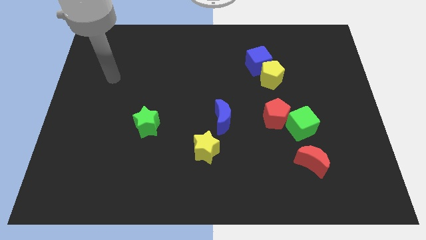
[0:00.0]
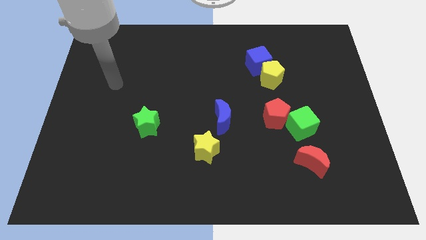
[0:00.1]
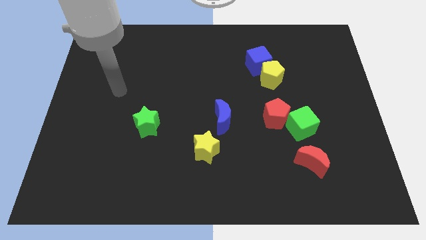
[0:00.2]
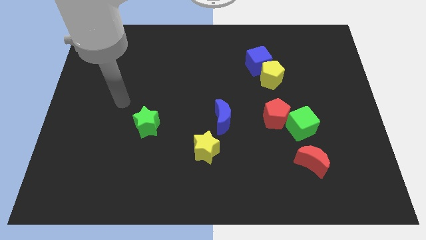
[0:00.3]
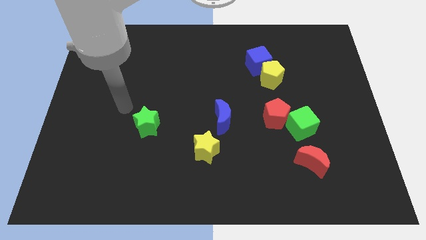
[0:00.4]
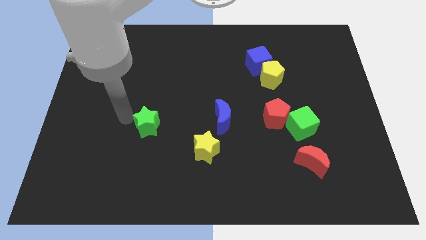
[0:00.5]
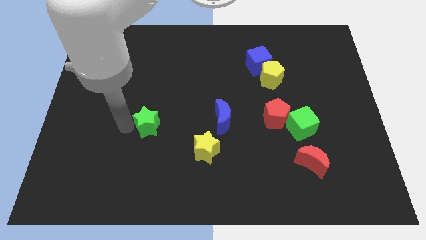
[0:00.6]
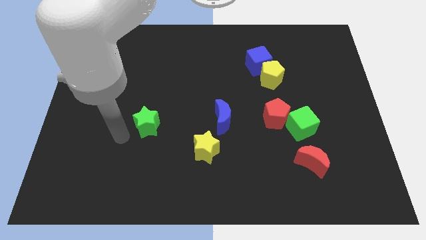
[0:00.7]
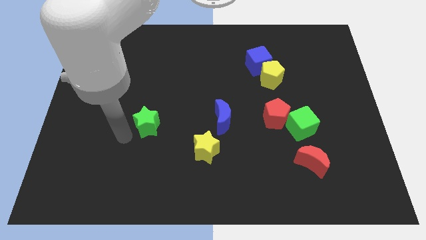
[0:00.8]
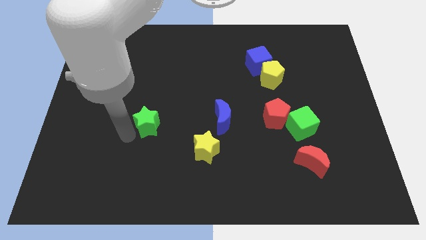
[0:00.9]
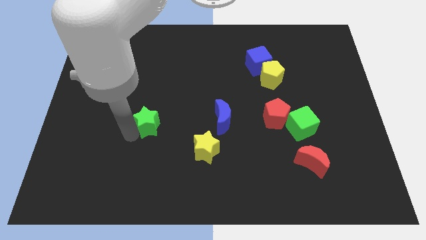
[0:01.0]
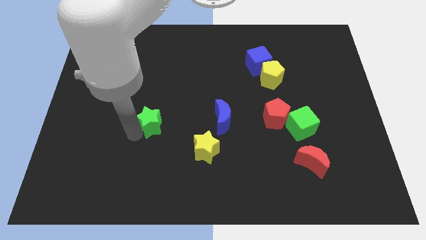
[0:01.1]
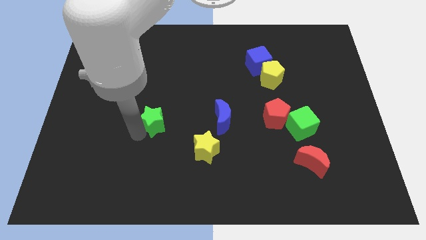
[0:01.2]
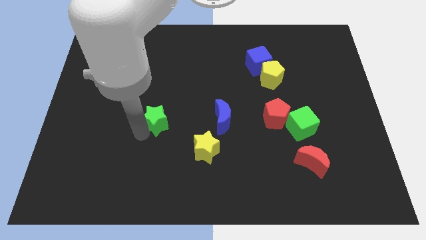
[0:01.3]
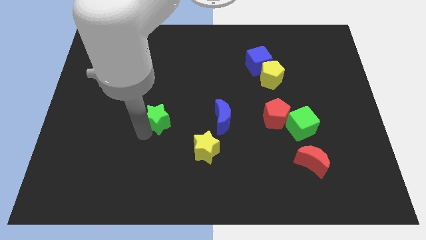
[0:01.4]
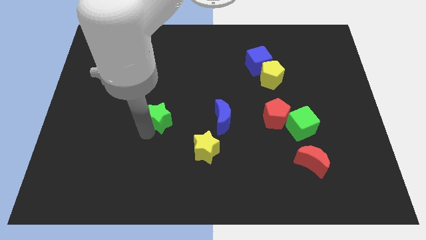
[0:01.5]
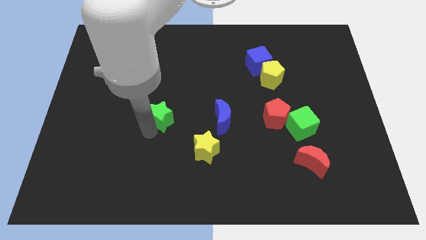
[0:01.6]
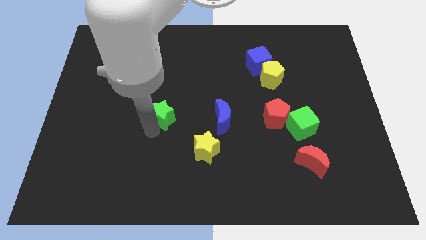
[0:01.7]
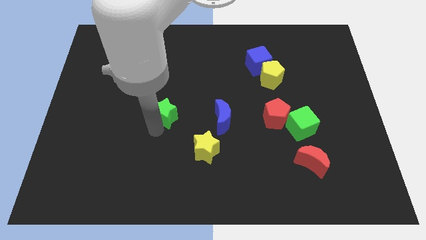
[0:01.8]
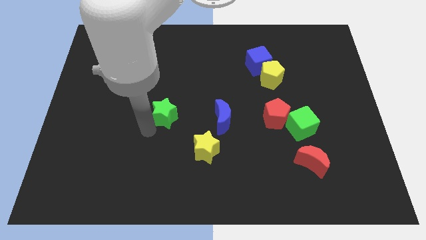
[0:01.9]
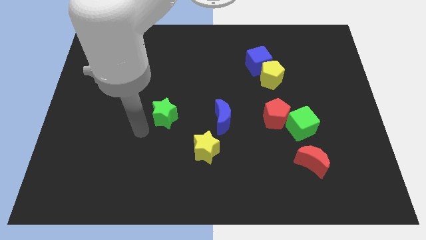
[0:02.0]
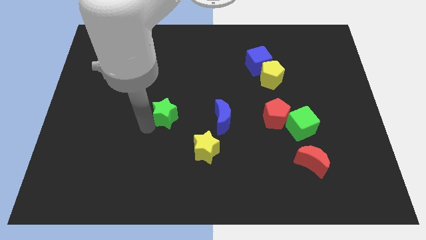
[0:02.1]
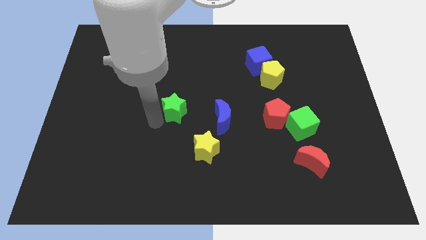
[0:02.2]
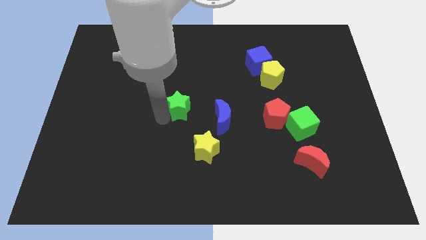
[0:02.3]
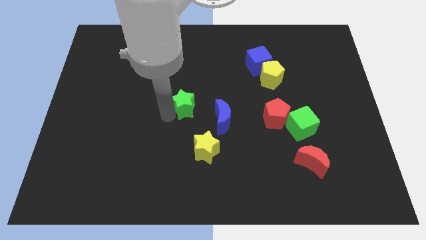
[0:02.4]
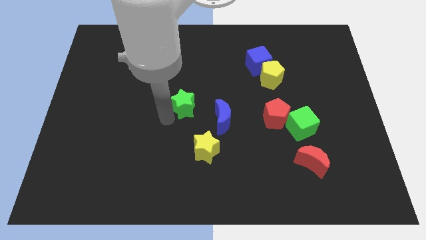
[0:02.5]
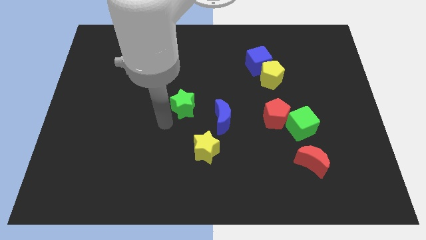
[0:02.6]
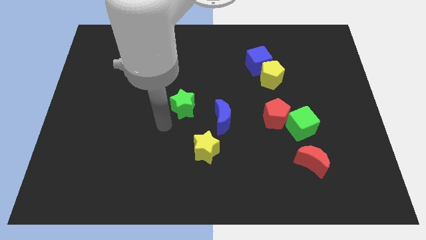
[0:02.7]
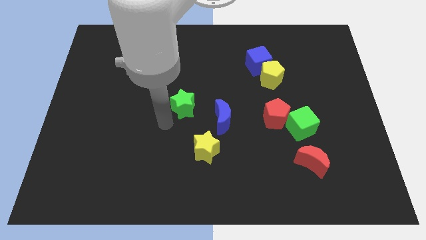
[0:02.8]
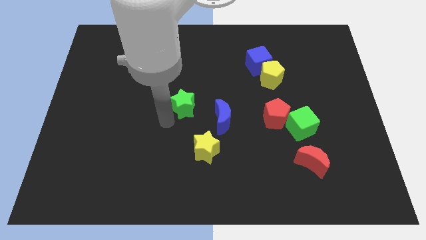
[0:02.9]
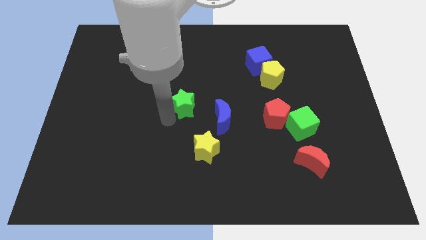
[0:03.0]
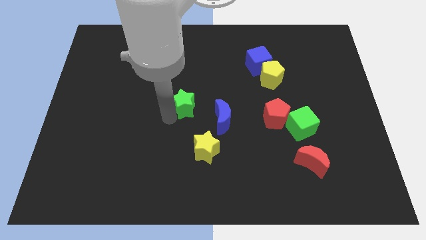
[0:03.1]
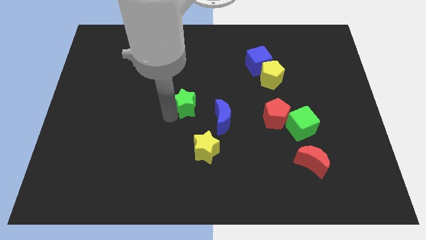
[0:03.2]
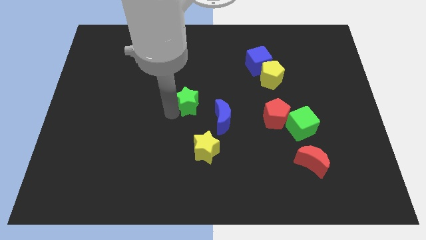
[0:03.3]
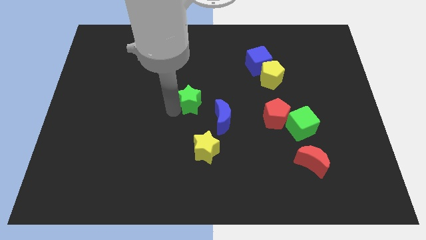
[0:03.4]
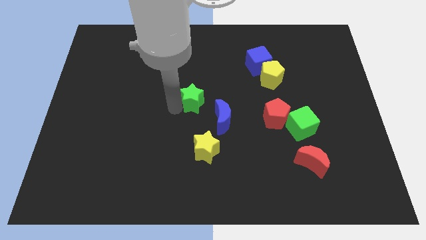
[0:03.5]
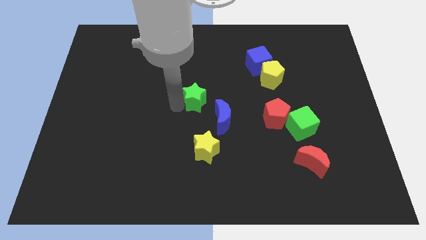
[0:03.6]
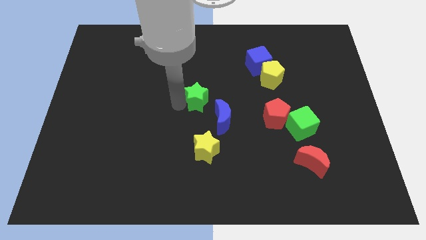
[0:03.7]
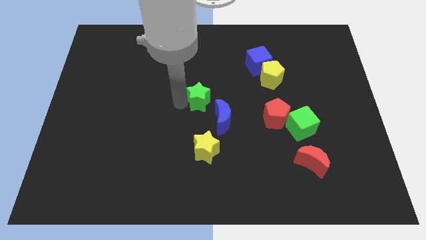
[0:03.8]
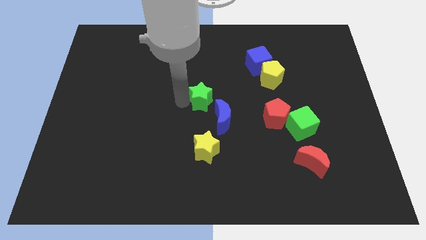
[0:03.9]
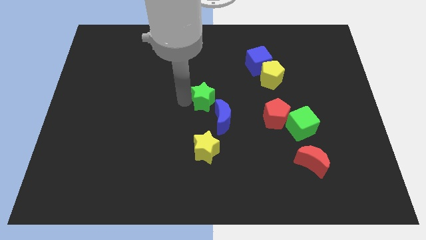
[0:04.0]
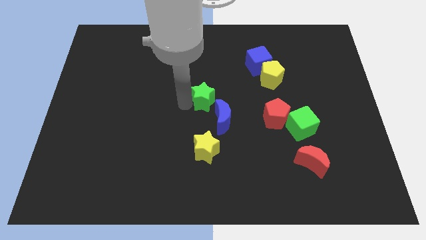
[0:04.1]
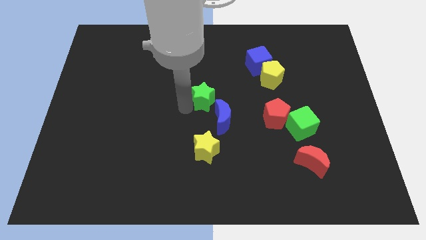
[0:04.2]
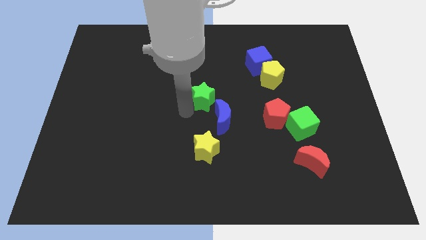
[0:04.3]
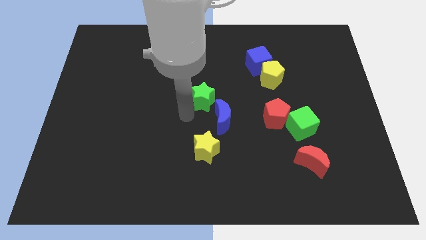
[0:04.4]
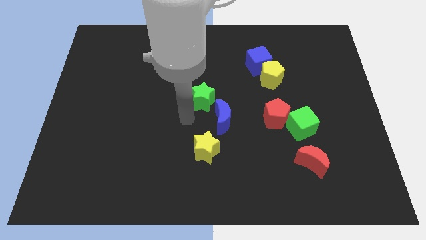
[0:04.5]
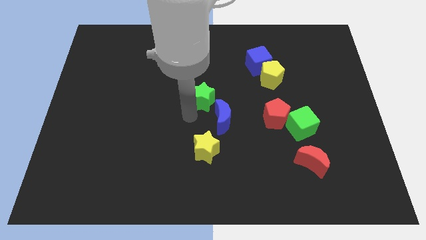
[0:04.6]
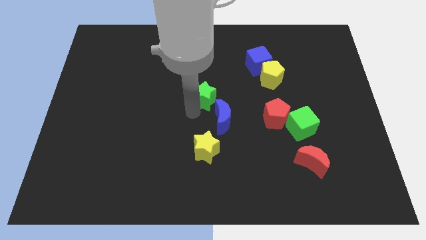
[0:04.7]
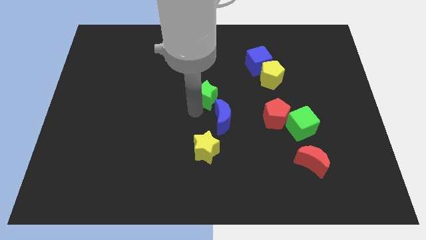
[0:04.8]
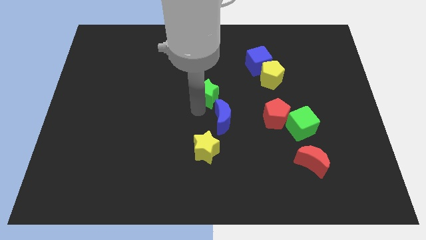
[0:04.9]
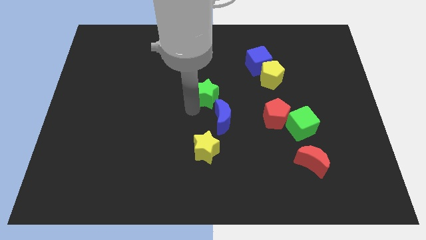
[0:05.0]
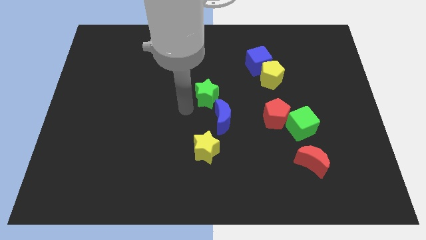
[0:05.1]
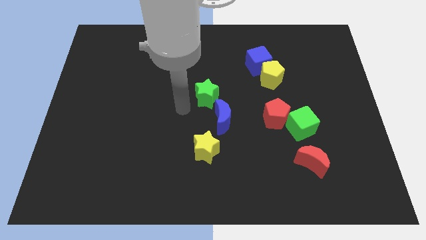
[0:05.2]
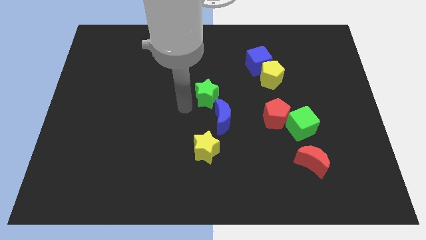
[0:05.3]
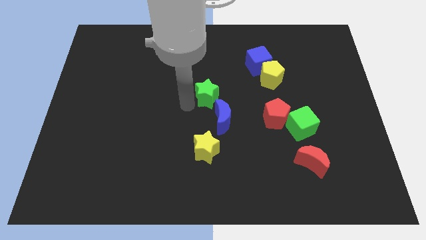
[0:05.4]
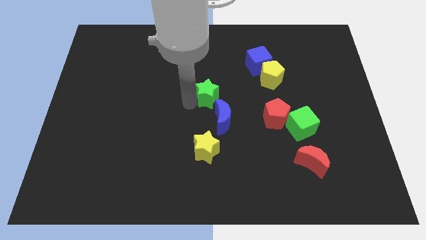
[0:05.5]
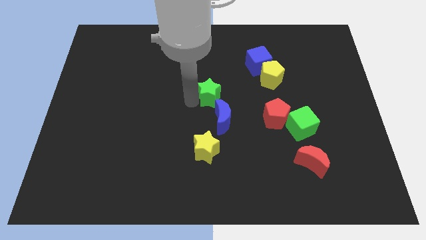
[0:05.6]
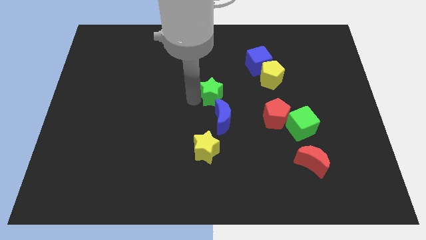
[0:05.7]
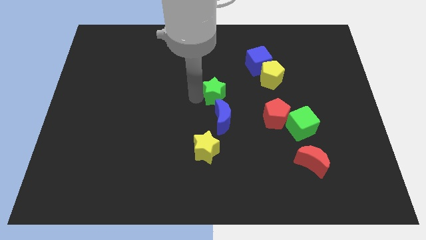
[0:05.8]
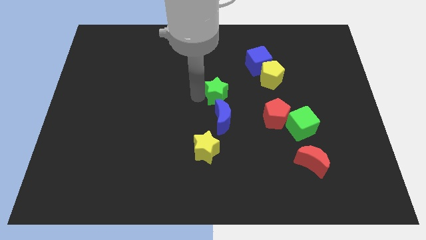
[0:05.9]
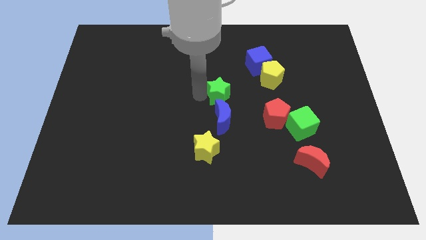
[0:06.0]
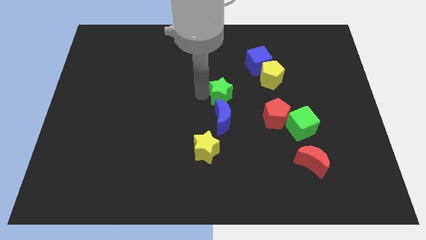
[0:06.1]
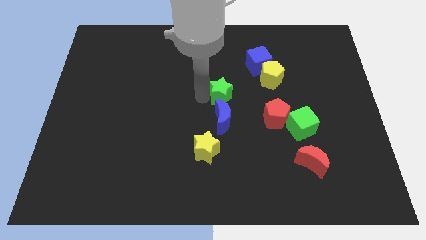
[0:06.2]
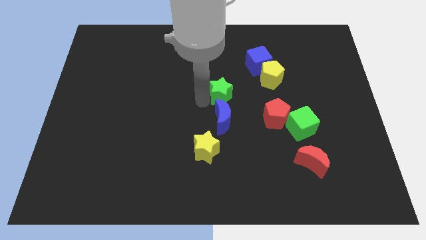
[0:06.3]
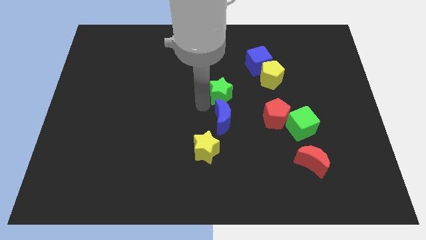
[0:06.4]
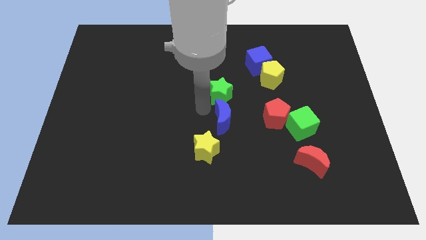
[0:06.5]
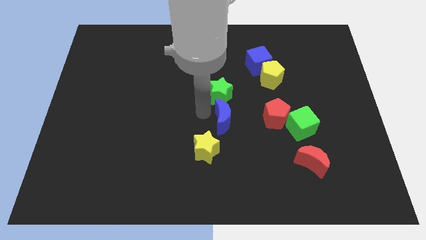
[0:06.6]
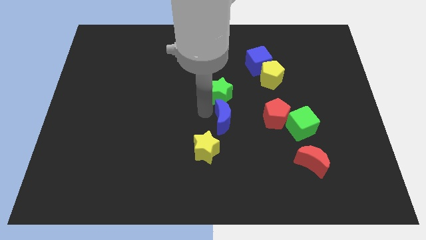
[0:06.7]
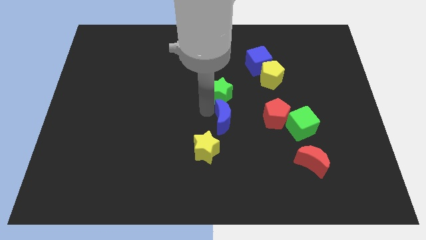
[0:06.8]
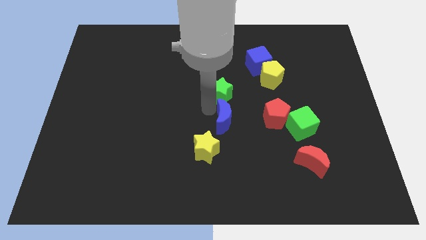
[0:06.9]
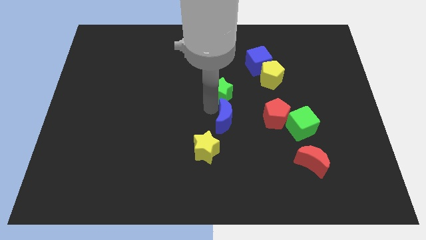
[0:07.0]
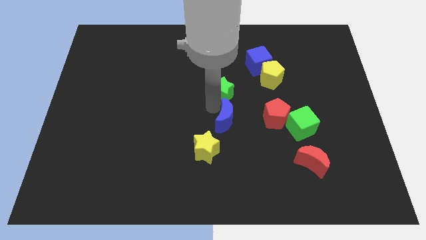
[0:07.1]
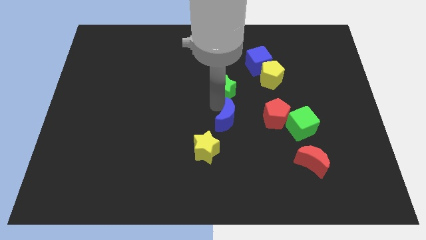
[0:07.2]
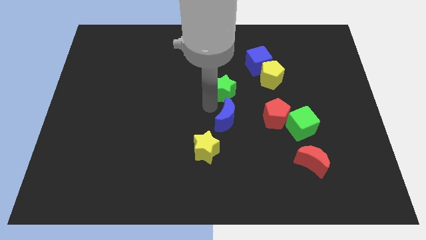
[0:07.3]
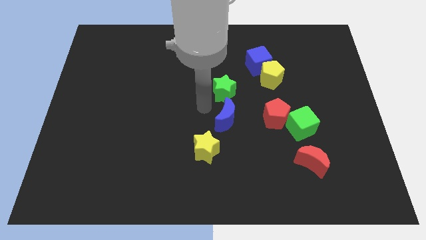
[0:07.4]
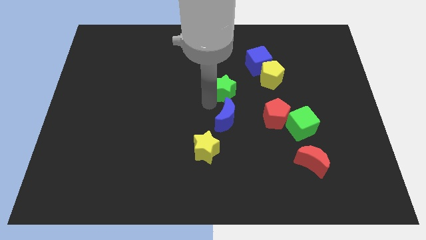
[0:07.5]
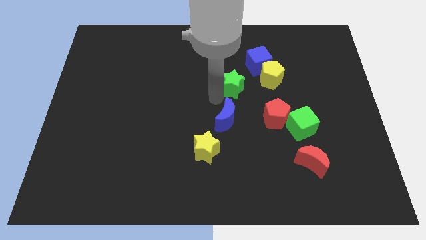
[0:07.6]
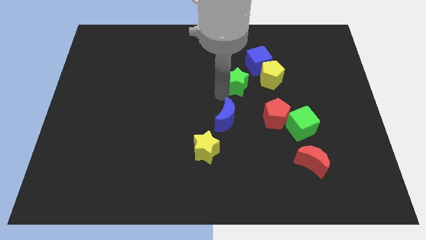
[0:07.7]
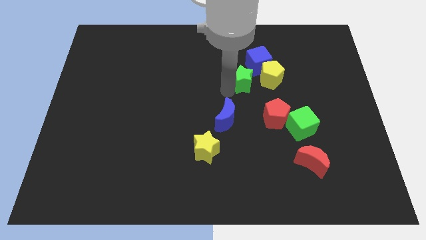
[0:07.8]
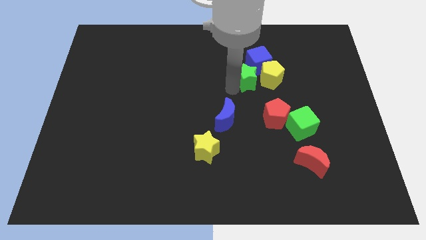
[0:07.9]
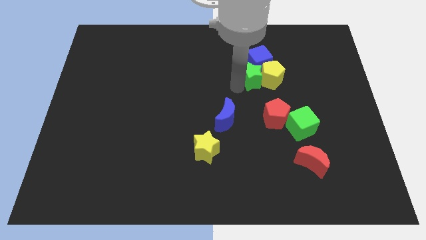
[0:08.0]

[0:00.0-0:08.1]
put the green star to the blue cube
